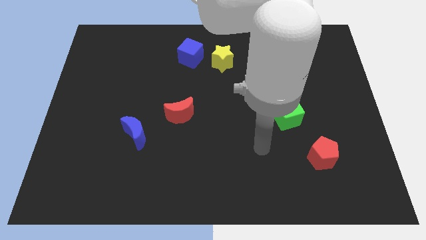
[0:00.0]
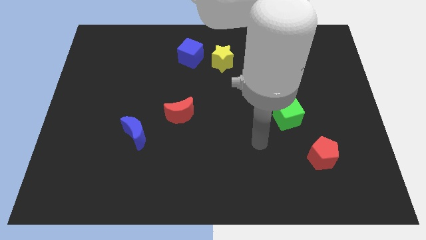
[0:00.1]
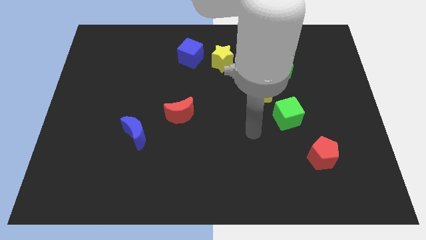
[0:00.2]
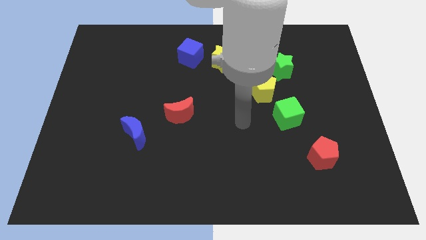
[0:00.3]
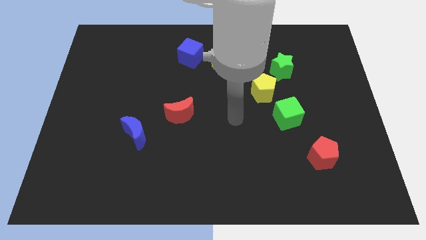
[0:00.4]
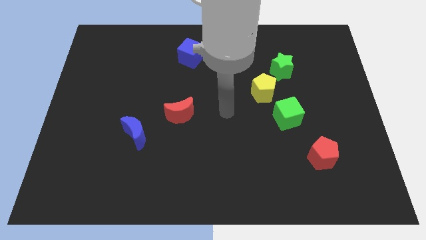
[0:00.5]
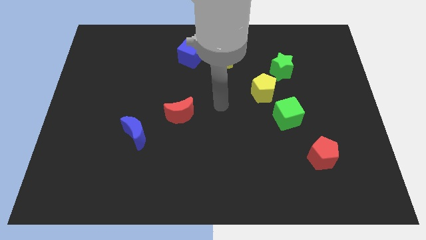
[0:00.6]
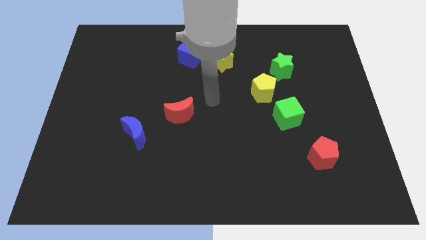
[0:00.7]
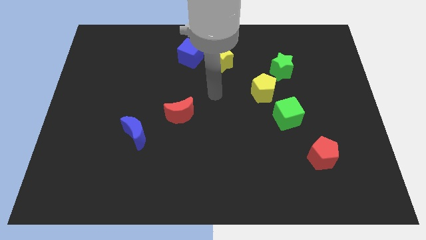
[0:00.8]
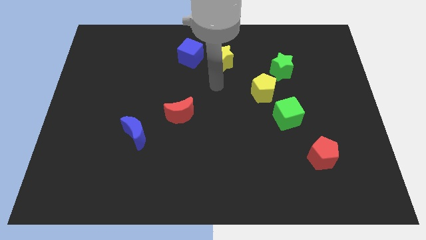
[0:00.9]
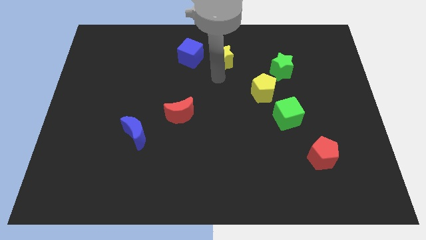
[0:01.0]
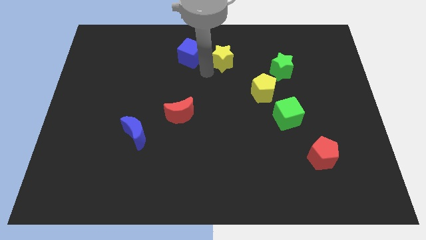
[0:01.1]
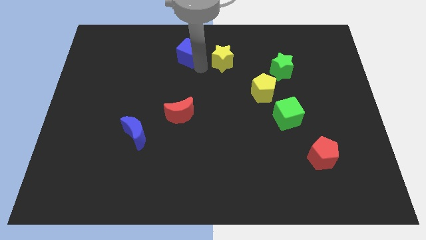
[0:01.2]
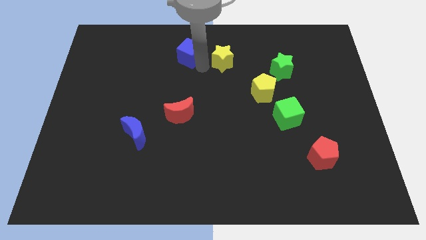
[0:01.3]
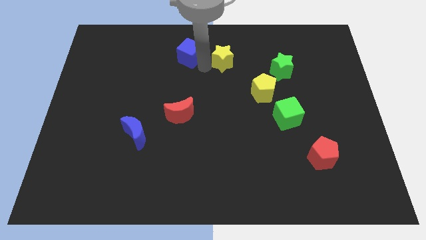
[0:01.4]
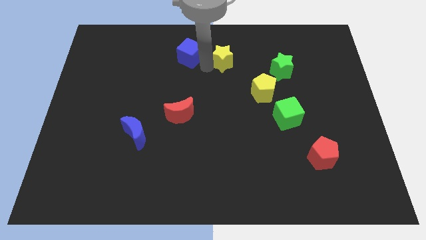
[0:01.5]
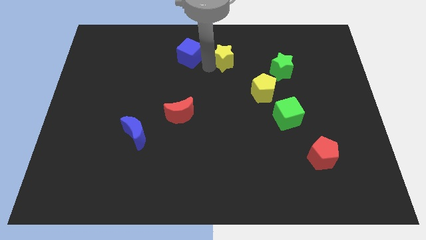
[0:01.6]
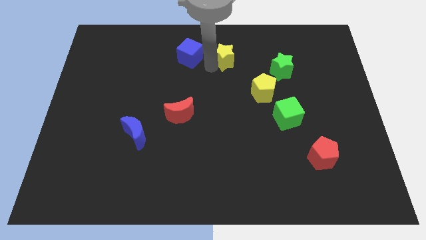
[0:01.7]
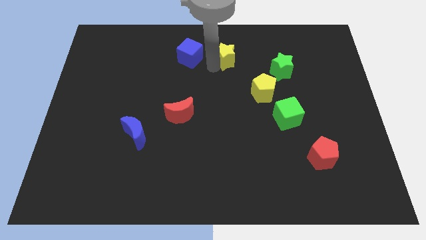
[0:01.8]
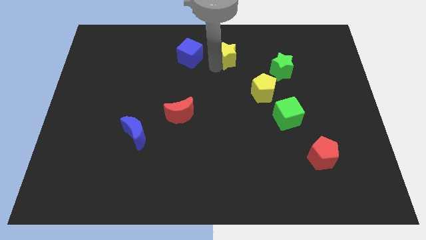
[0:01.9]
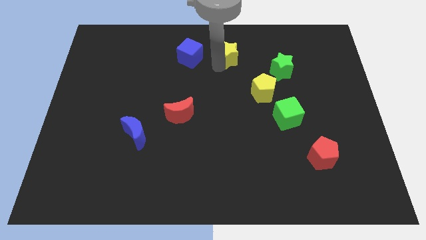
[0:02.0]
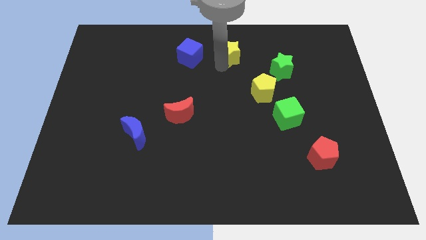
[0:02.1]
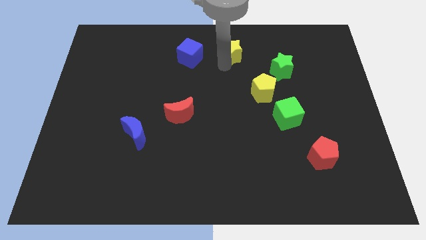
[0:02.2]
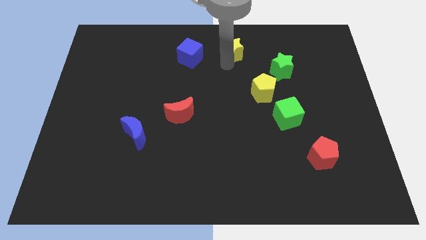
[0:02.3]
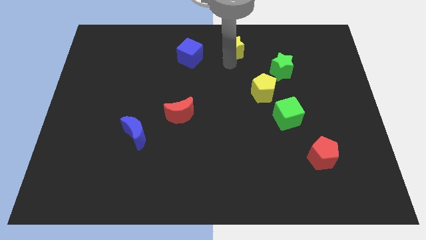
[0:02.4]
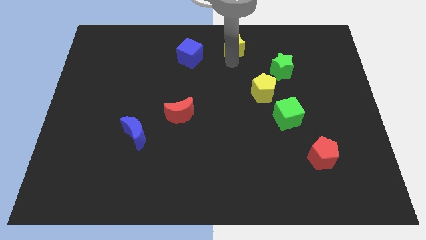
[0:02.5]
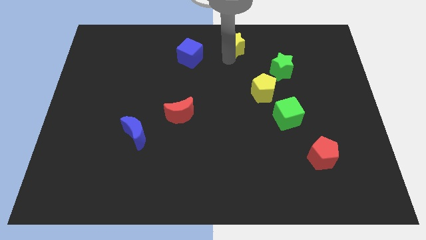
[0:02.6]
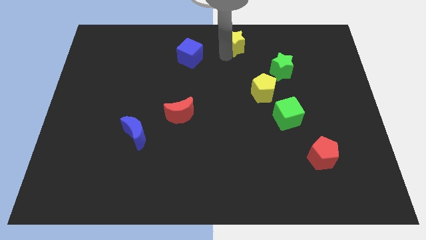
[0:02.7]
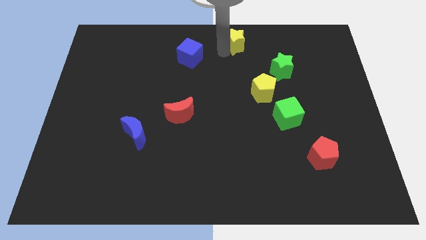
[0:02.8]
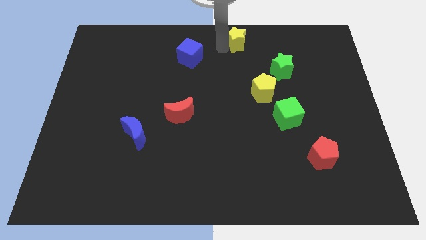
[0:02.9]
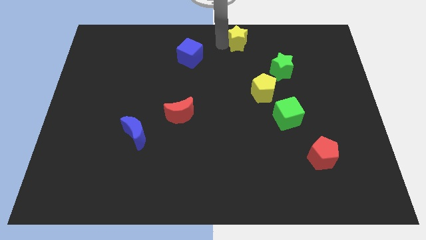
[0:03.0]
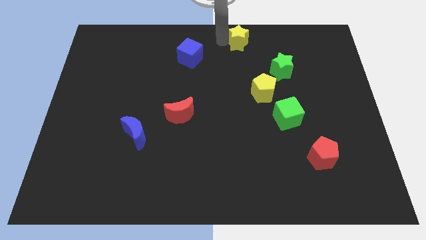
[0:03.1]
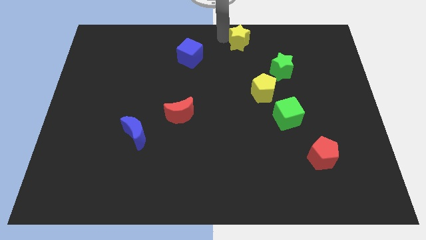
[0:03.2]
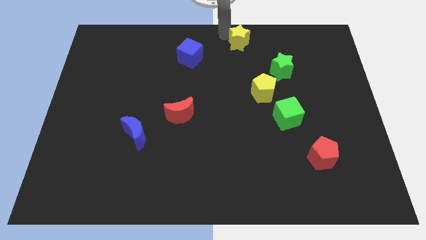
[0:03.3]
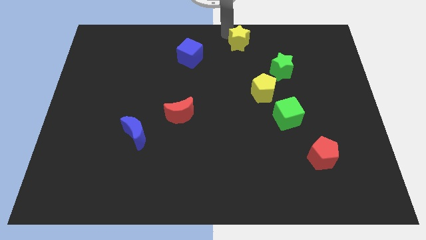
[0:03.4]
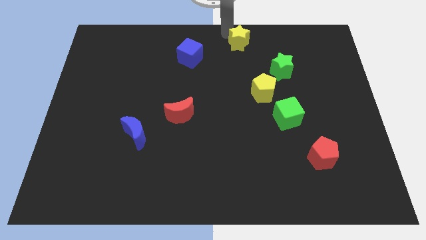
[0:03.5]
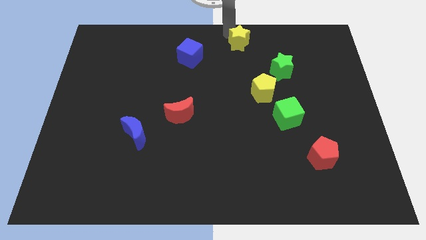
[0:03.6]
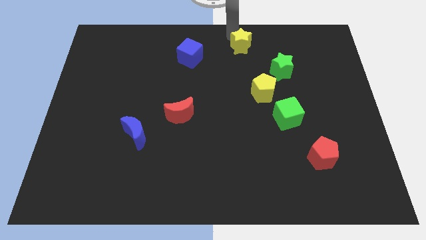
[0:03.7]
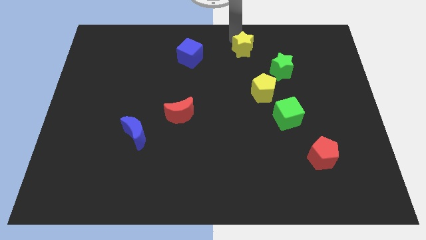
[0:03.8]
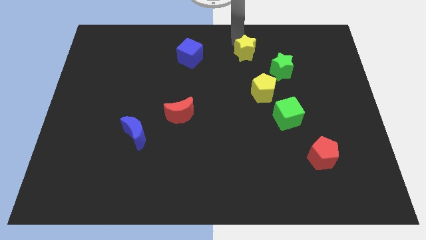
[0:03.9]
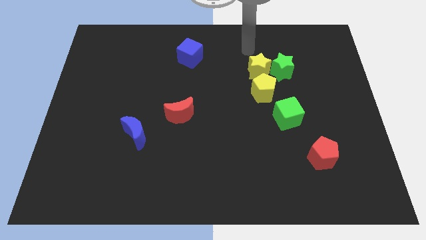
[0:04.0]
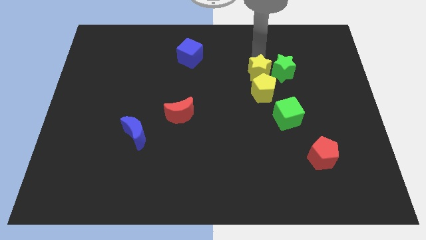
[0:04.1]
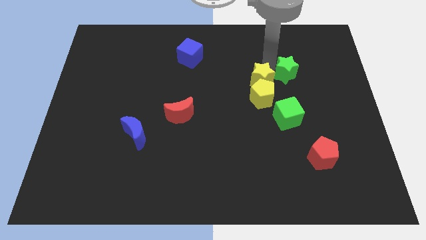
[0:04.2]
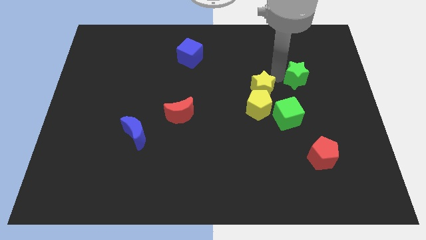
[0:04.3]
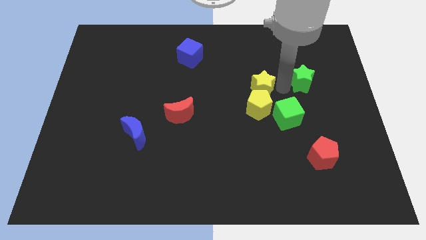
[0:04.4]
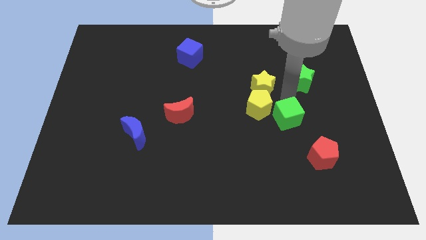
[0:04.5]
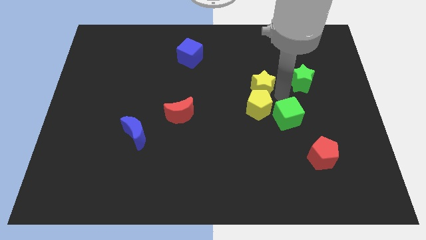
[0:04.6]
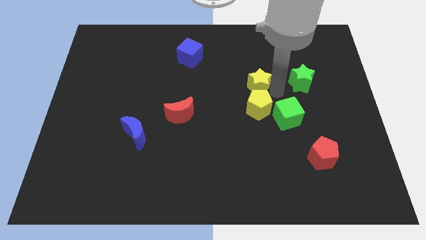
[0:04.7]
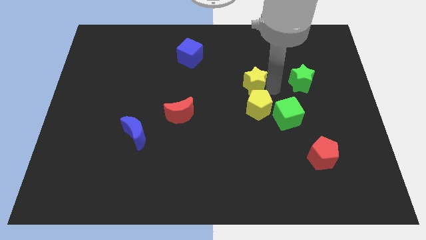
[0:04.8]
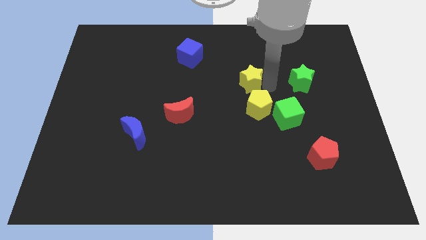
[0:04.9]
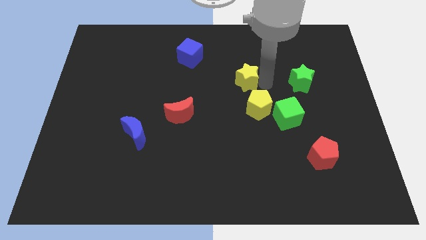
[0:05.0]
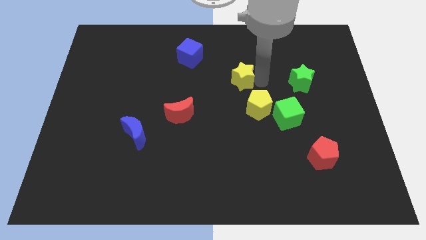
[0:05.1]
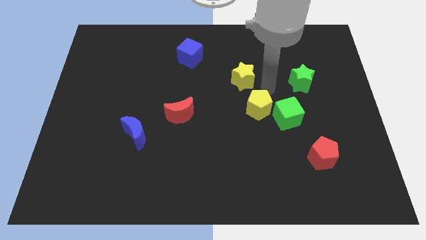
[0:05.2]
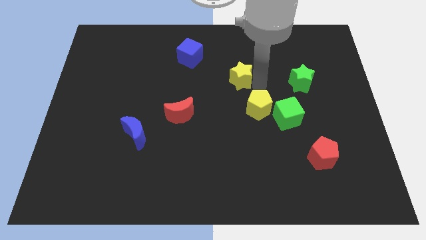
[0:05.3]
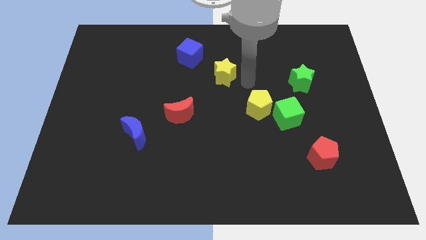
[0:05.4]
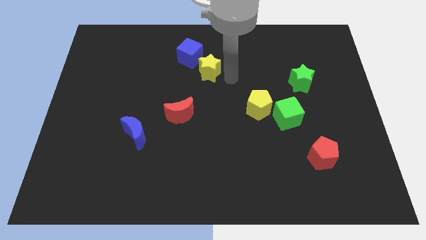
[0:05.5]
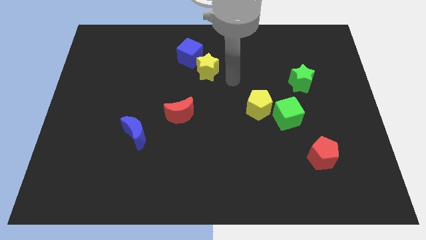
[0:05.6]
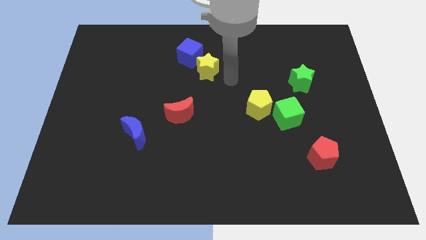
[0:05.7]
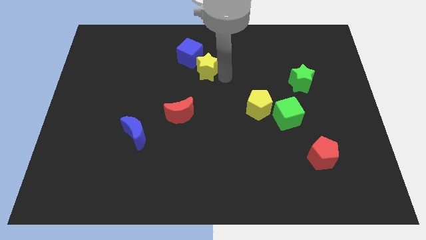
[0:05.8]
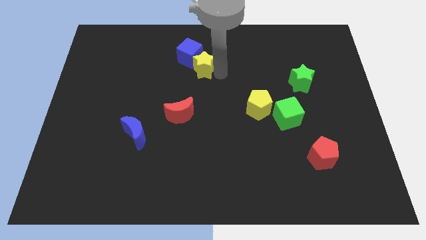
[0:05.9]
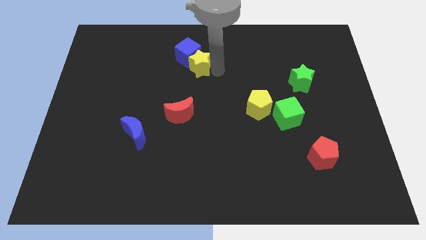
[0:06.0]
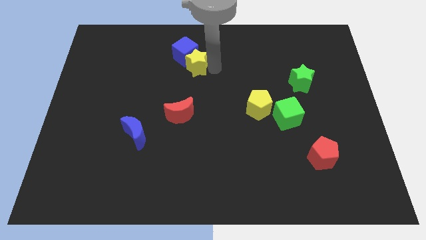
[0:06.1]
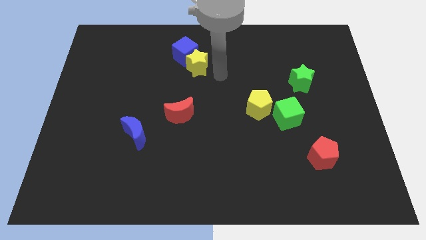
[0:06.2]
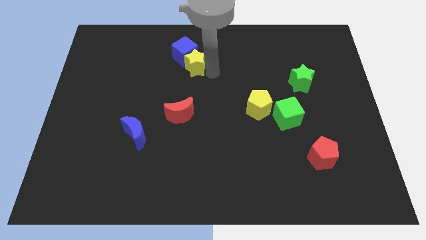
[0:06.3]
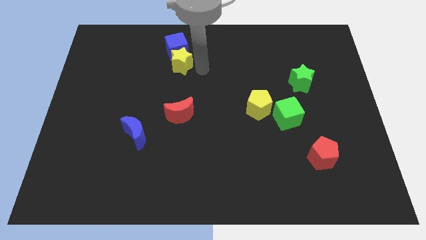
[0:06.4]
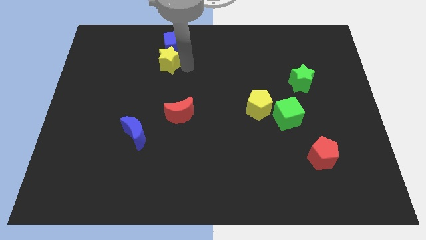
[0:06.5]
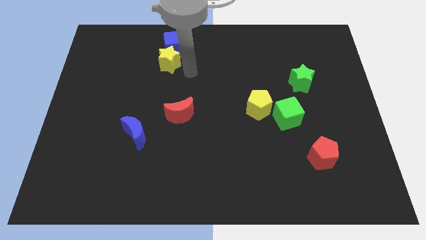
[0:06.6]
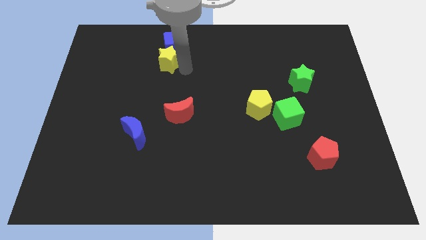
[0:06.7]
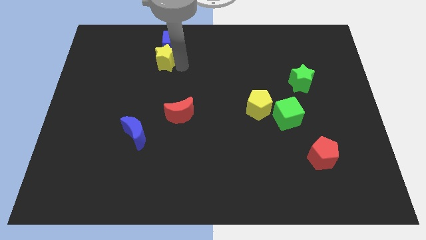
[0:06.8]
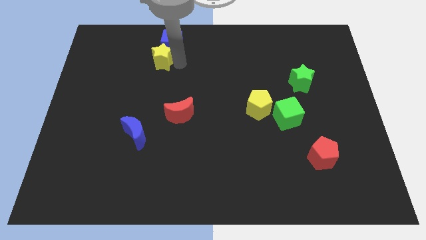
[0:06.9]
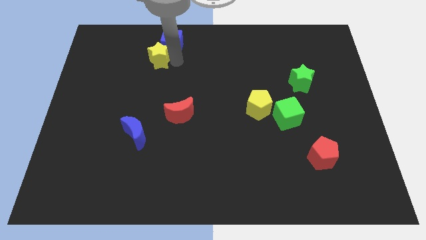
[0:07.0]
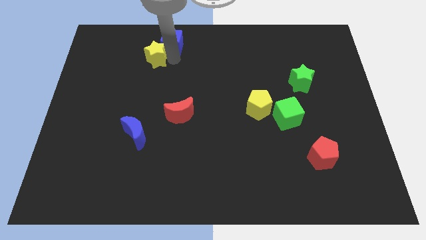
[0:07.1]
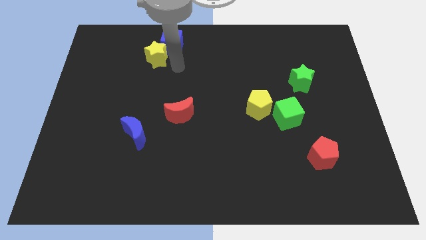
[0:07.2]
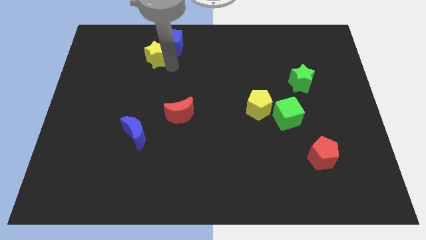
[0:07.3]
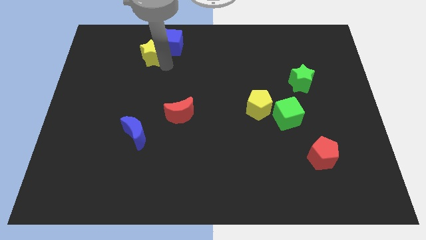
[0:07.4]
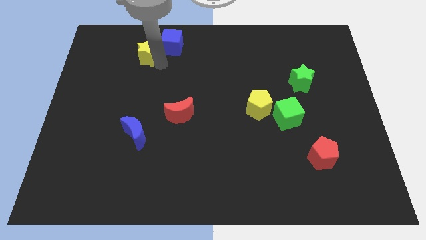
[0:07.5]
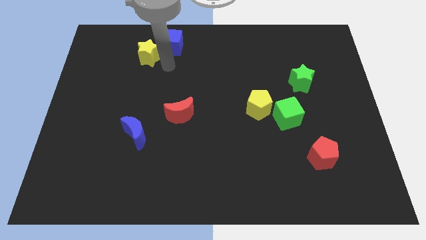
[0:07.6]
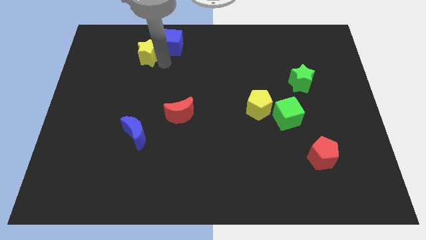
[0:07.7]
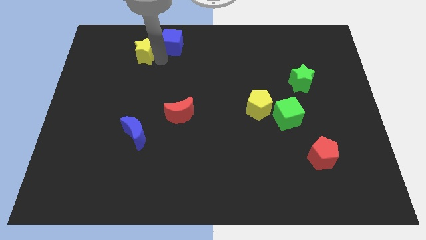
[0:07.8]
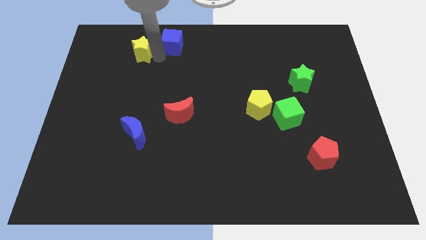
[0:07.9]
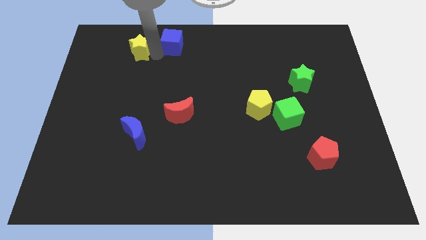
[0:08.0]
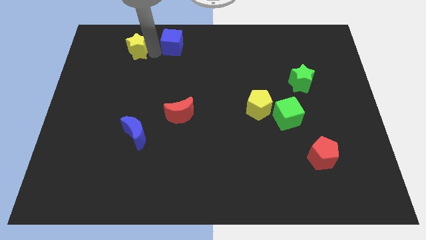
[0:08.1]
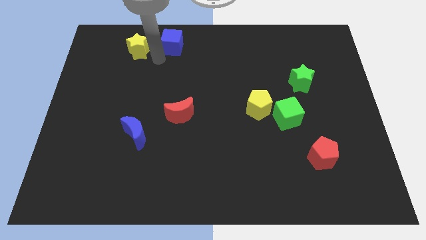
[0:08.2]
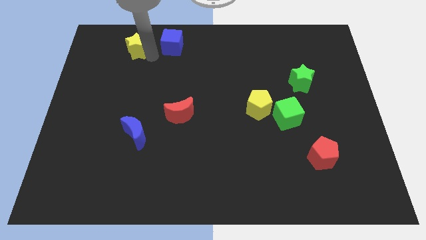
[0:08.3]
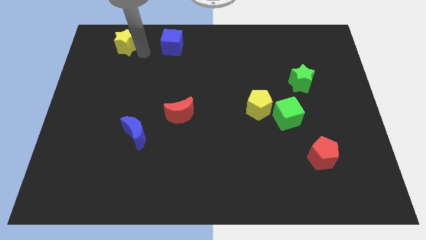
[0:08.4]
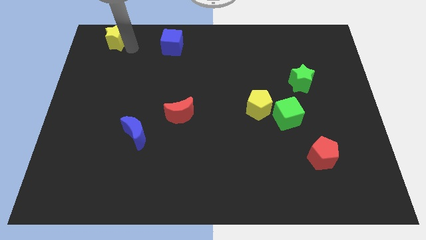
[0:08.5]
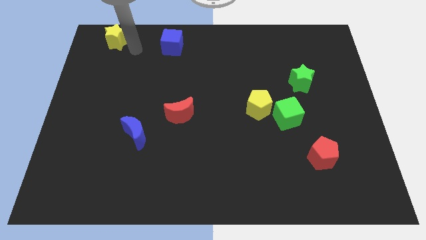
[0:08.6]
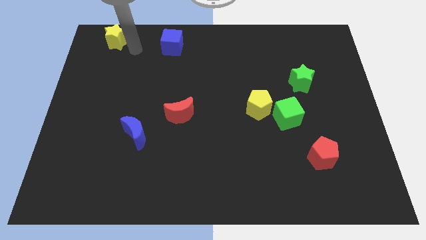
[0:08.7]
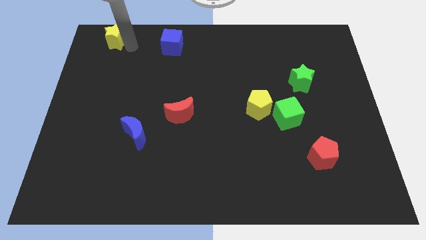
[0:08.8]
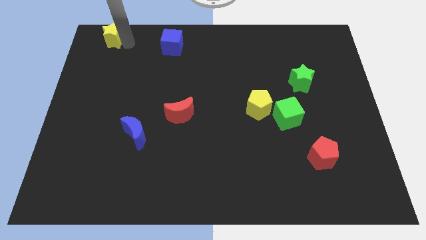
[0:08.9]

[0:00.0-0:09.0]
push the yellow star to the top left
